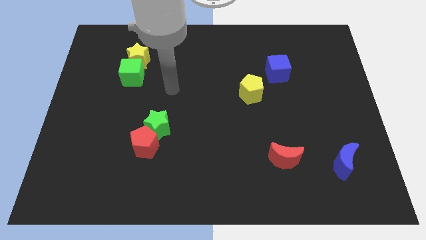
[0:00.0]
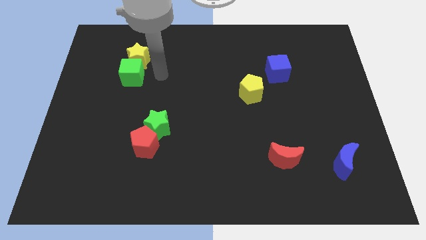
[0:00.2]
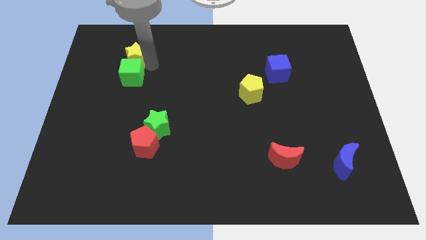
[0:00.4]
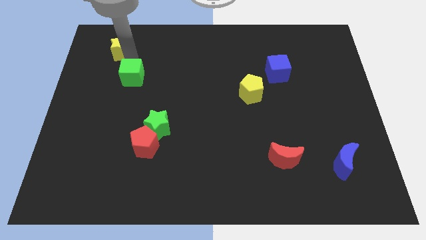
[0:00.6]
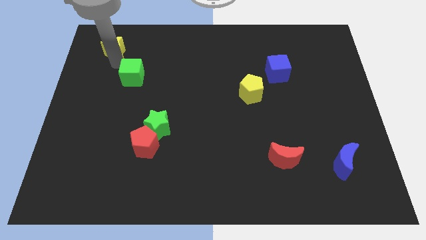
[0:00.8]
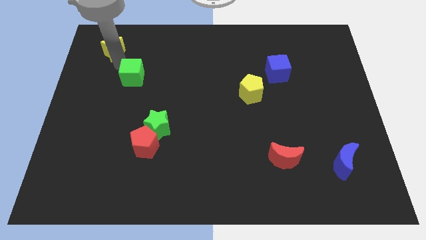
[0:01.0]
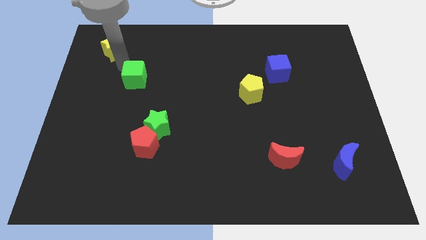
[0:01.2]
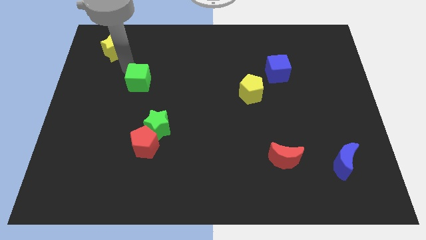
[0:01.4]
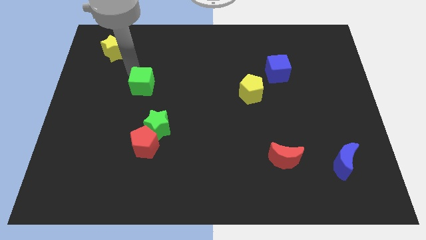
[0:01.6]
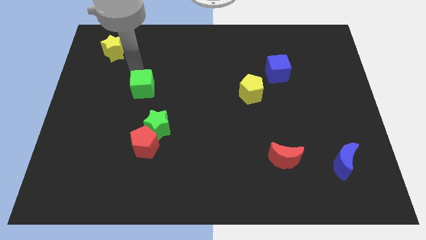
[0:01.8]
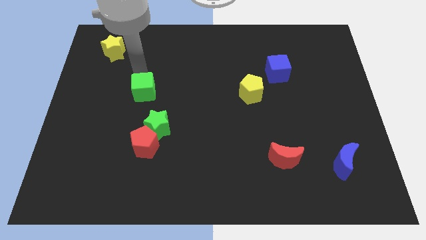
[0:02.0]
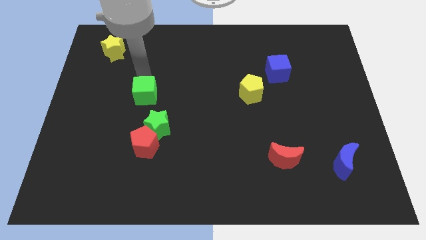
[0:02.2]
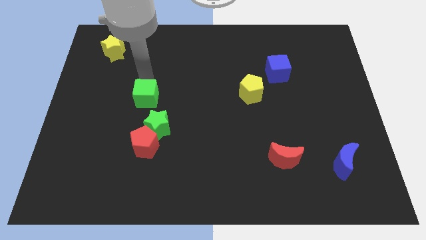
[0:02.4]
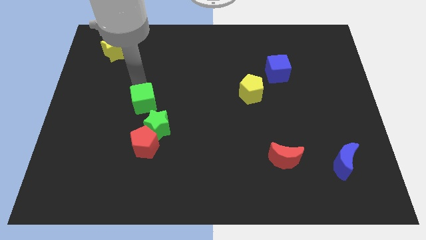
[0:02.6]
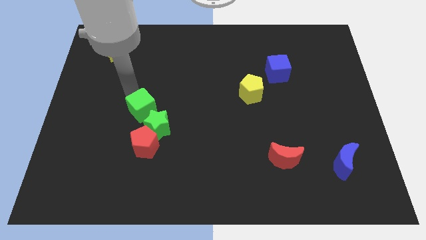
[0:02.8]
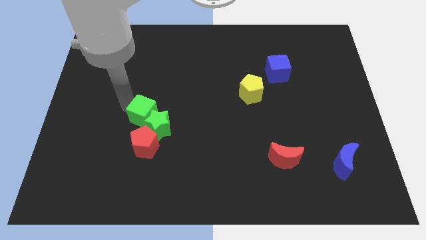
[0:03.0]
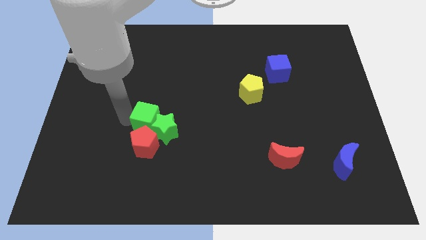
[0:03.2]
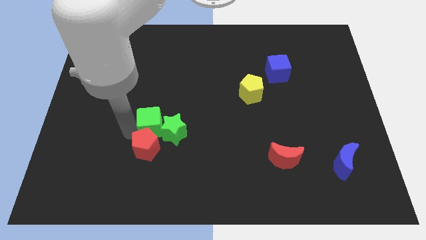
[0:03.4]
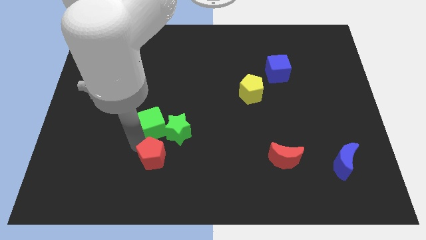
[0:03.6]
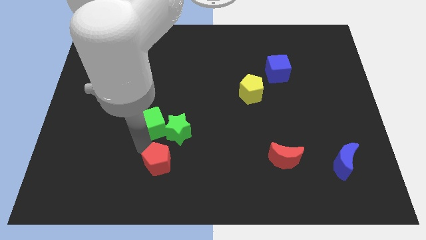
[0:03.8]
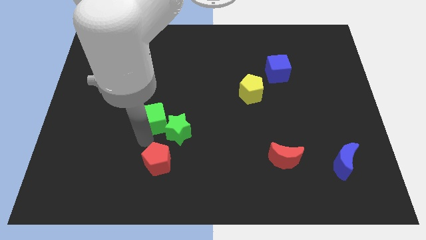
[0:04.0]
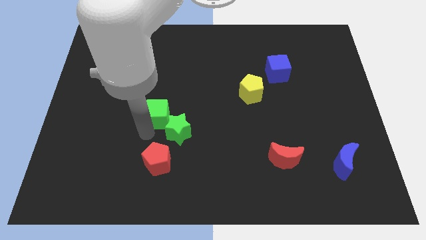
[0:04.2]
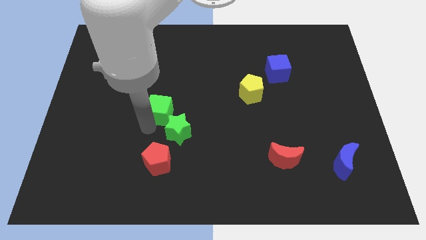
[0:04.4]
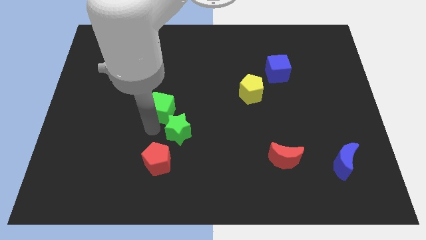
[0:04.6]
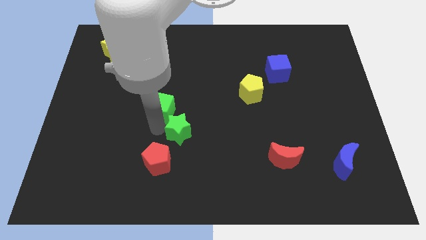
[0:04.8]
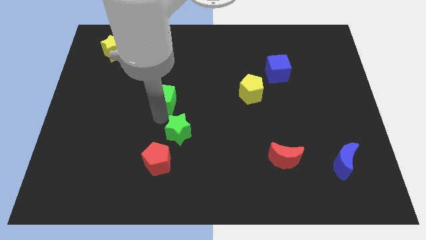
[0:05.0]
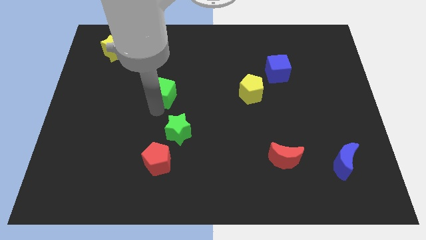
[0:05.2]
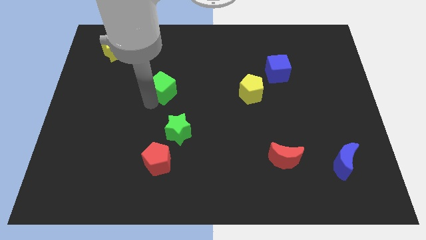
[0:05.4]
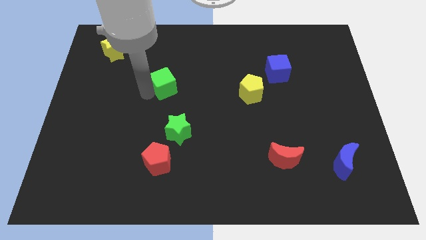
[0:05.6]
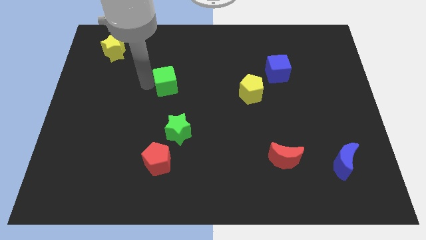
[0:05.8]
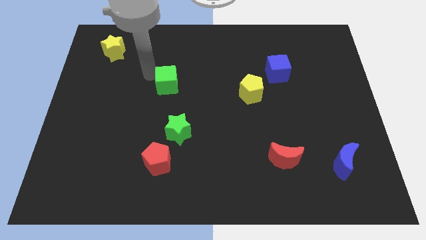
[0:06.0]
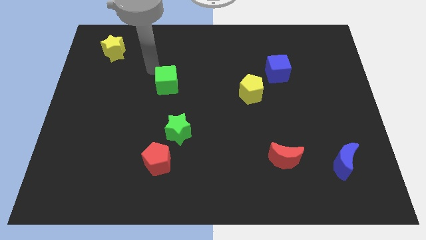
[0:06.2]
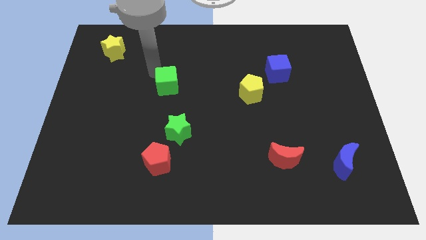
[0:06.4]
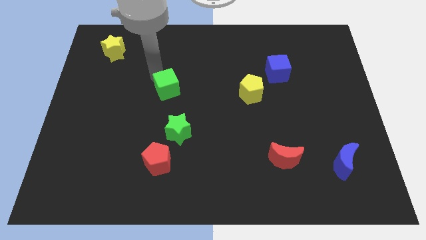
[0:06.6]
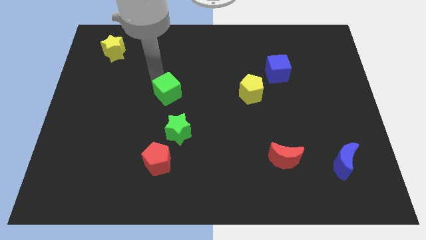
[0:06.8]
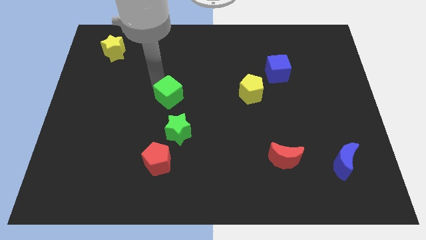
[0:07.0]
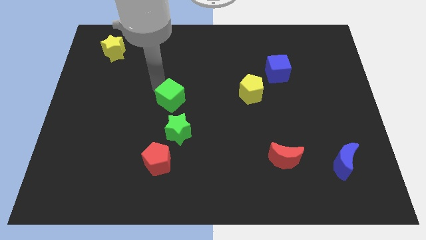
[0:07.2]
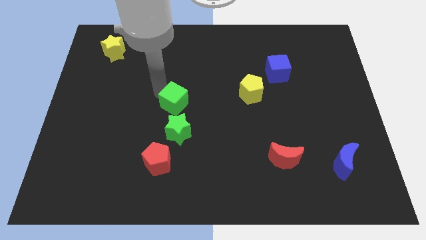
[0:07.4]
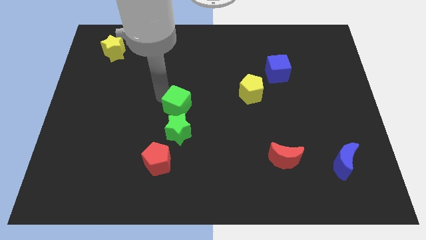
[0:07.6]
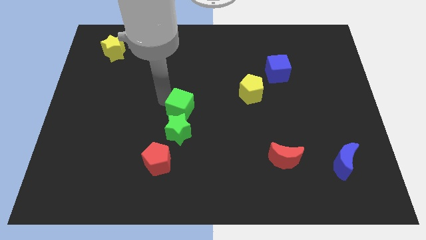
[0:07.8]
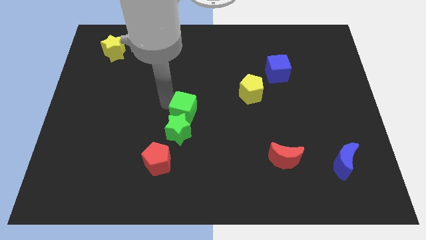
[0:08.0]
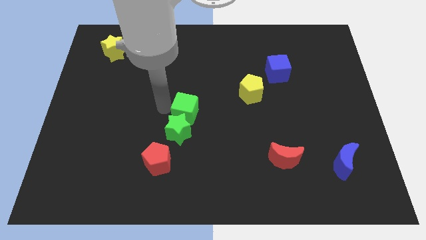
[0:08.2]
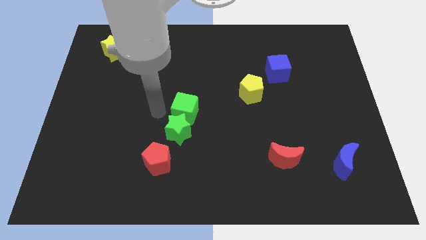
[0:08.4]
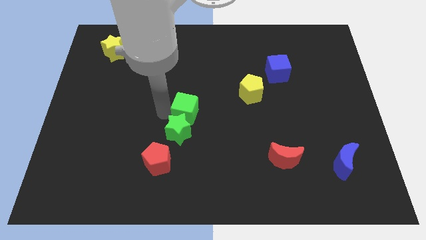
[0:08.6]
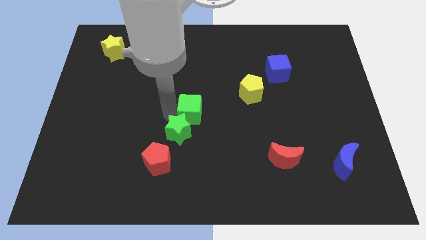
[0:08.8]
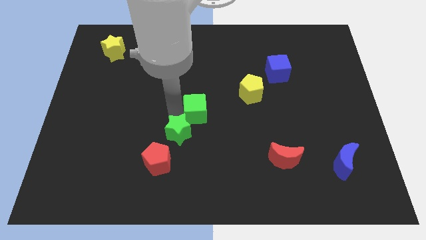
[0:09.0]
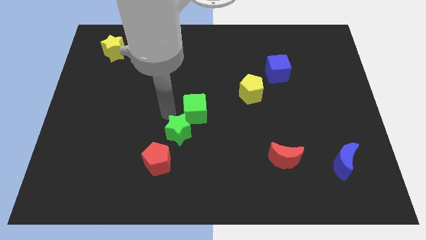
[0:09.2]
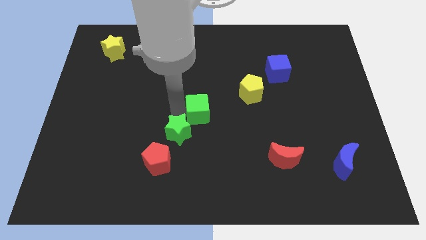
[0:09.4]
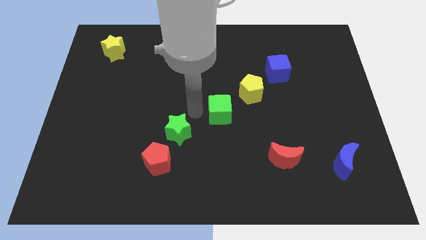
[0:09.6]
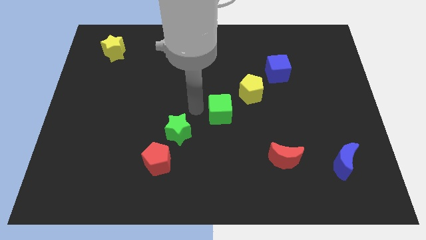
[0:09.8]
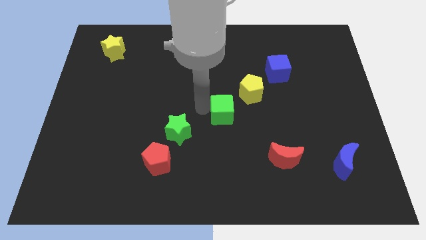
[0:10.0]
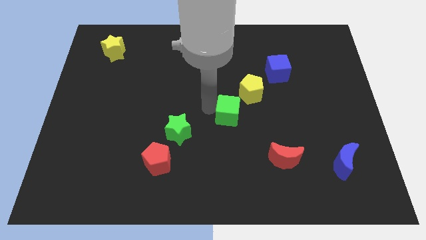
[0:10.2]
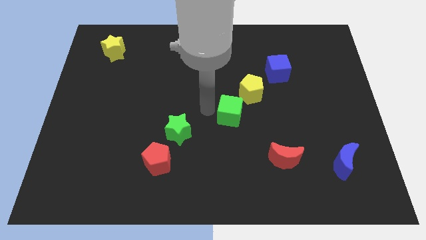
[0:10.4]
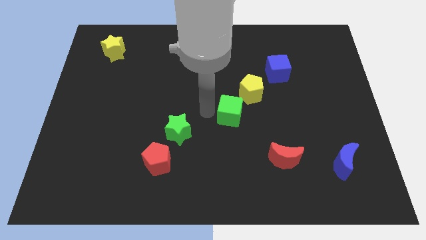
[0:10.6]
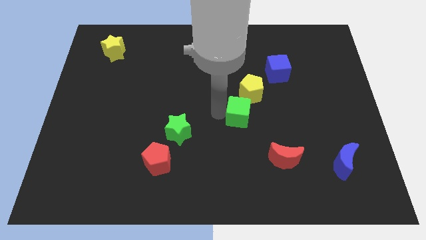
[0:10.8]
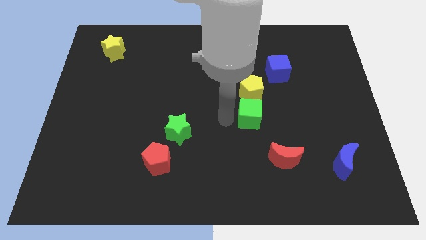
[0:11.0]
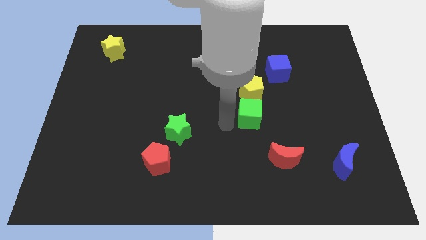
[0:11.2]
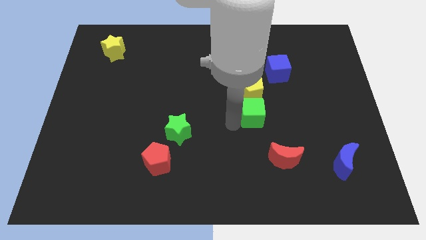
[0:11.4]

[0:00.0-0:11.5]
push the green cube to the bottom right of the yellow pentagon

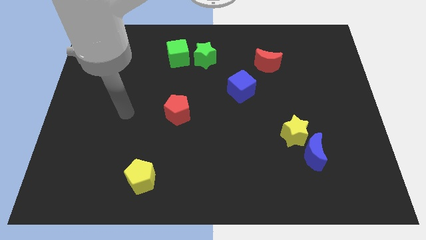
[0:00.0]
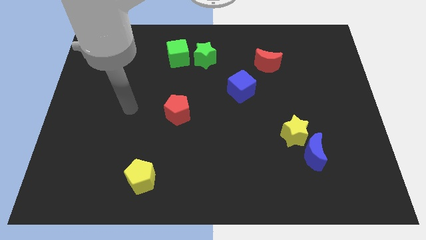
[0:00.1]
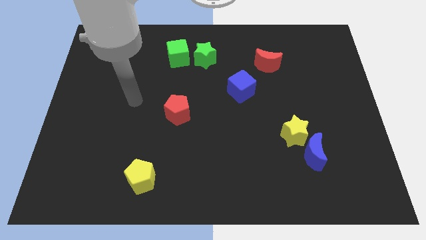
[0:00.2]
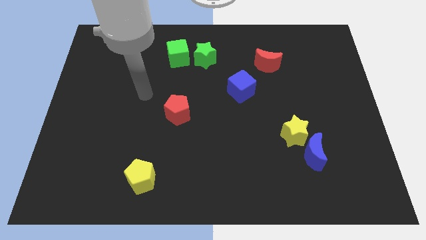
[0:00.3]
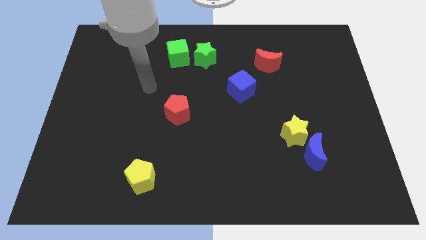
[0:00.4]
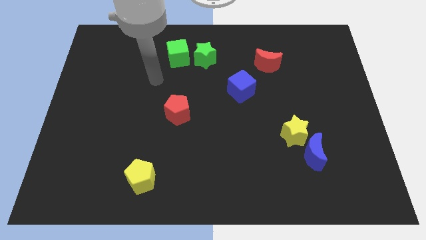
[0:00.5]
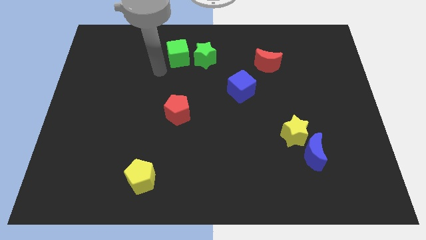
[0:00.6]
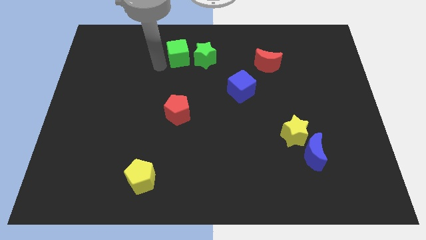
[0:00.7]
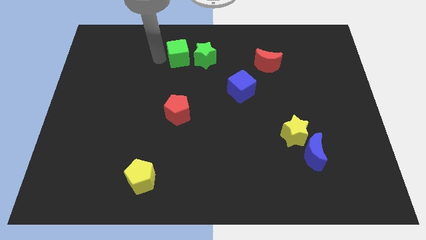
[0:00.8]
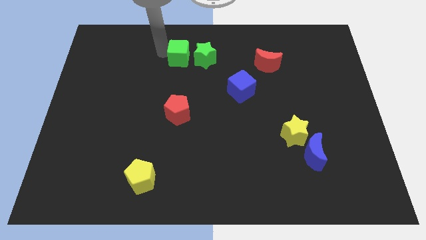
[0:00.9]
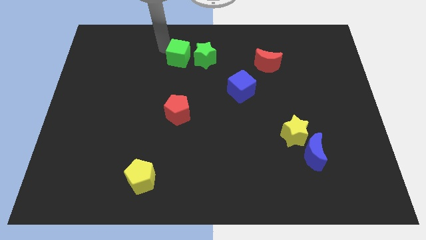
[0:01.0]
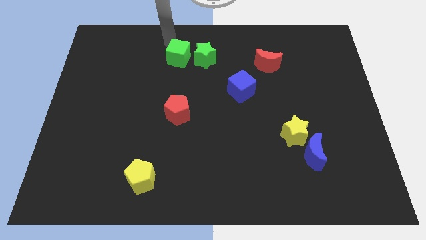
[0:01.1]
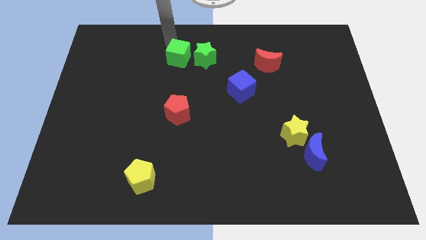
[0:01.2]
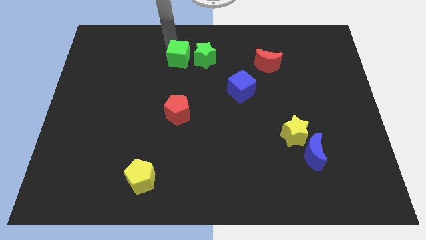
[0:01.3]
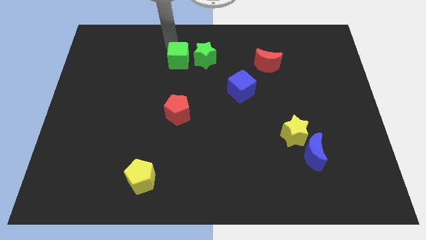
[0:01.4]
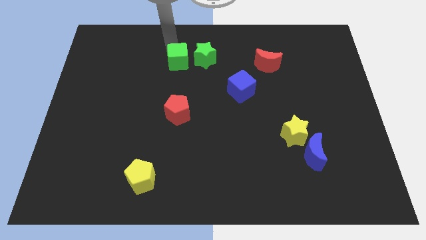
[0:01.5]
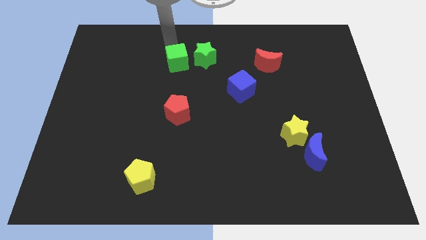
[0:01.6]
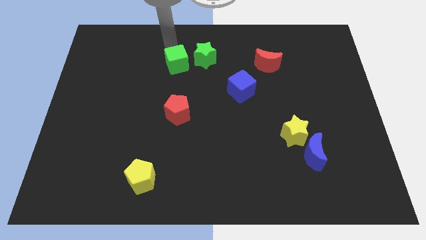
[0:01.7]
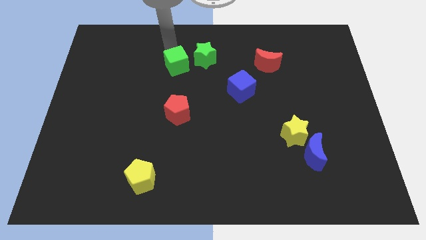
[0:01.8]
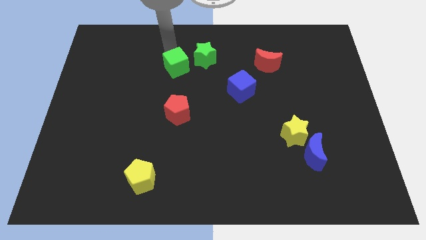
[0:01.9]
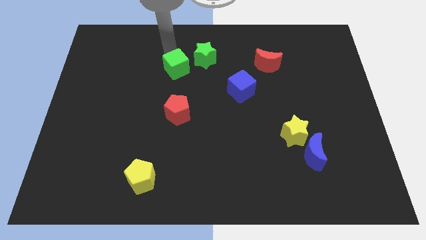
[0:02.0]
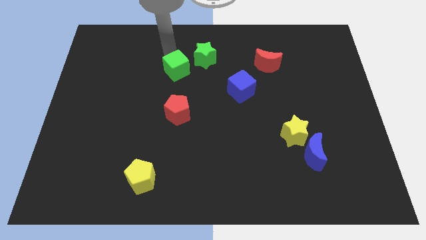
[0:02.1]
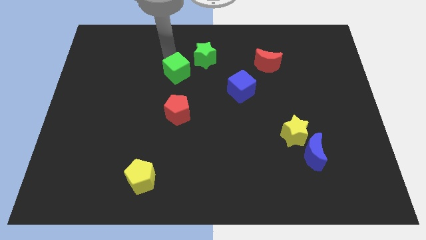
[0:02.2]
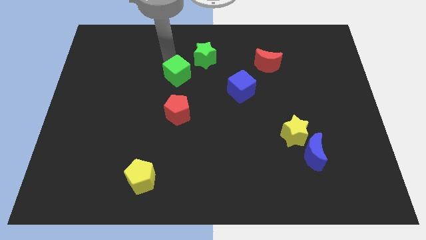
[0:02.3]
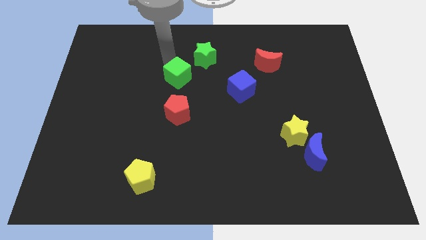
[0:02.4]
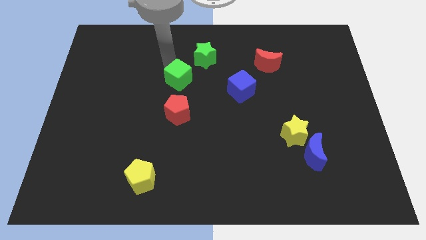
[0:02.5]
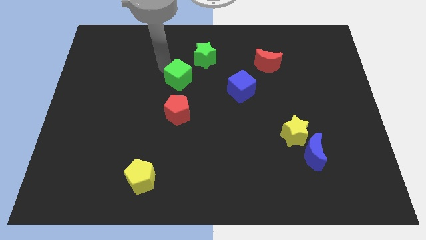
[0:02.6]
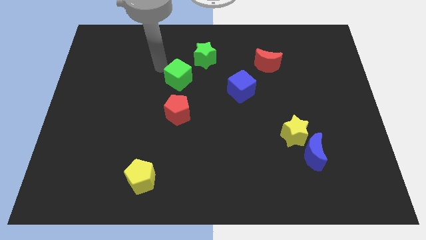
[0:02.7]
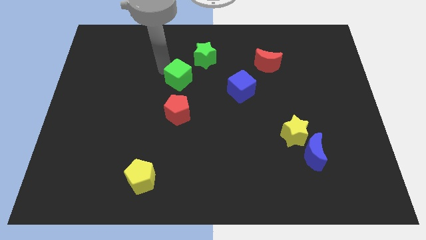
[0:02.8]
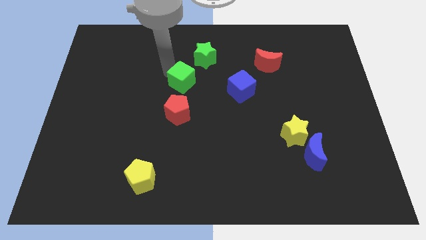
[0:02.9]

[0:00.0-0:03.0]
slide the green cube just left of the blue cube
